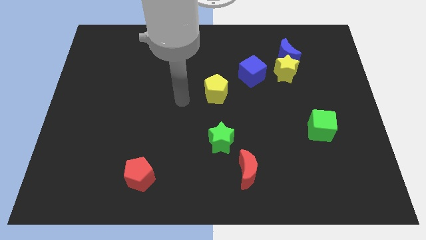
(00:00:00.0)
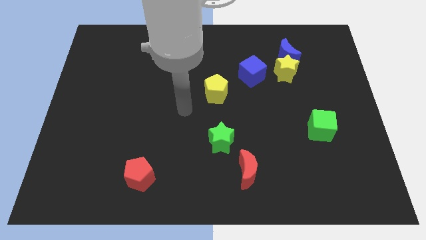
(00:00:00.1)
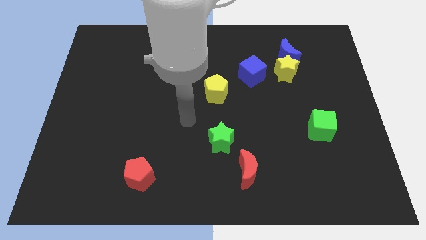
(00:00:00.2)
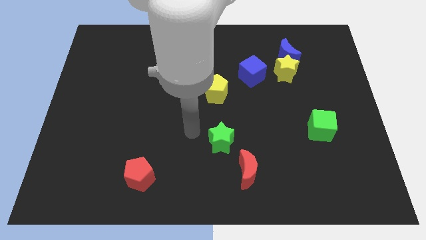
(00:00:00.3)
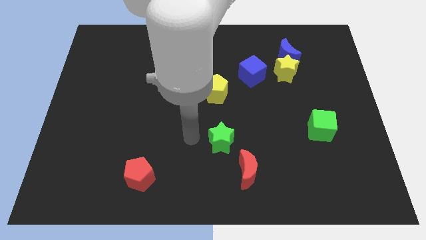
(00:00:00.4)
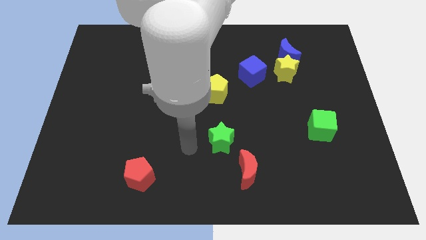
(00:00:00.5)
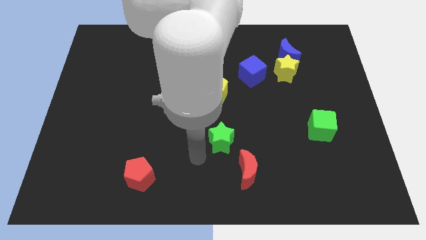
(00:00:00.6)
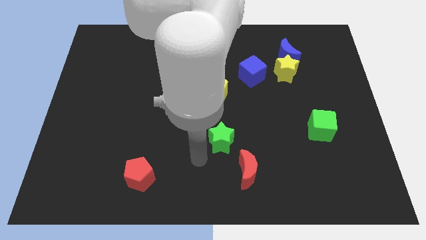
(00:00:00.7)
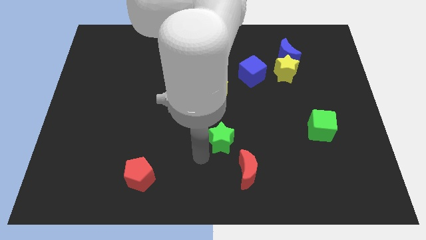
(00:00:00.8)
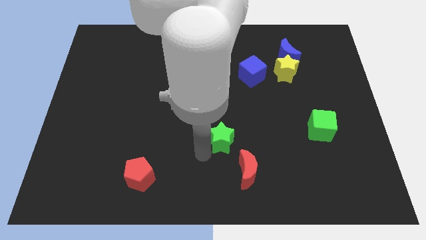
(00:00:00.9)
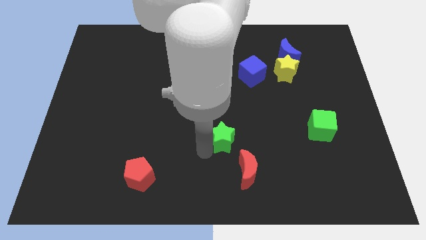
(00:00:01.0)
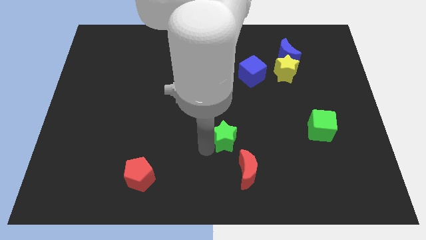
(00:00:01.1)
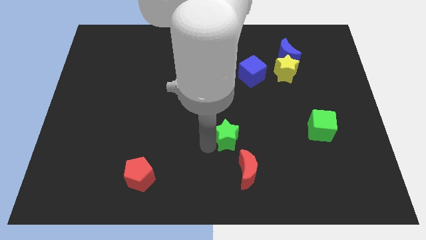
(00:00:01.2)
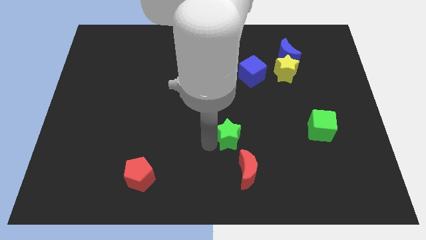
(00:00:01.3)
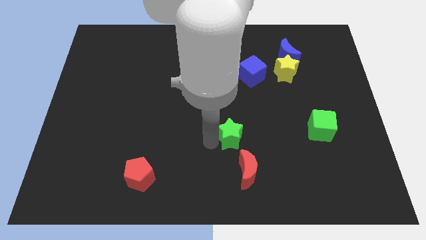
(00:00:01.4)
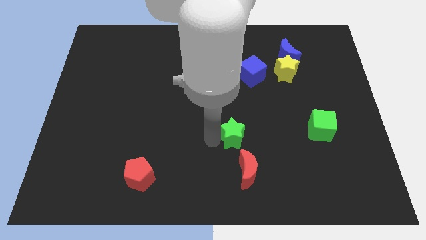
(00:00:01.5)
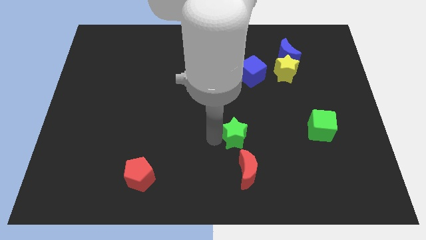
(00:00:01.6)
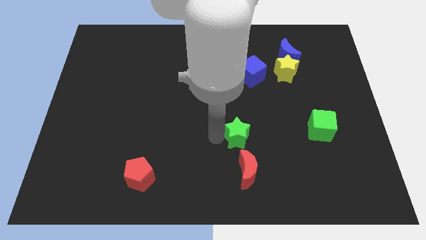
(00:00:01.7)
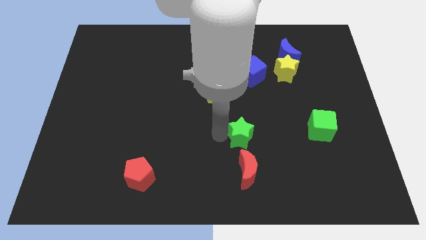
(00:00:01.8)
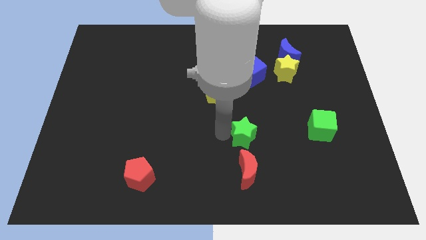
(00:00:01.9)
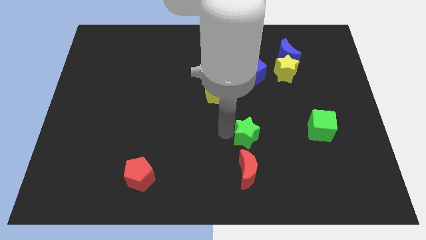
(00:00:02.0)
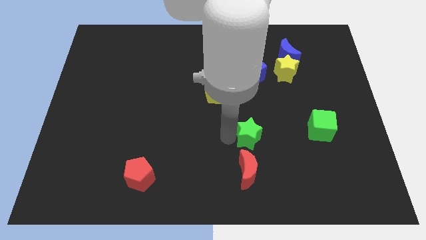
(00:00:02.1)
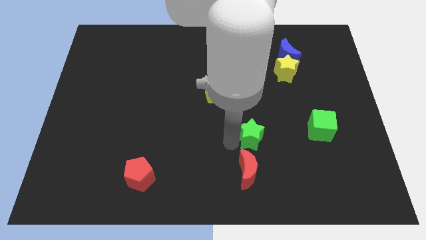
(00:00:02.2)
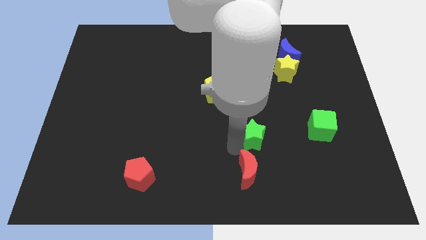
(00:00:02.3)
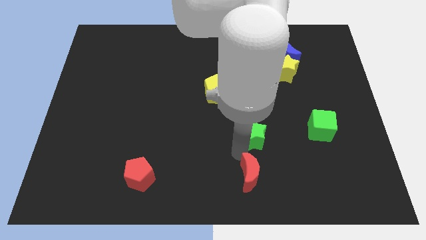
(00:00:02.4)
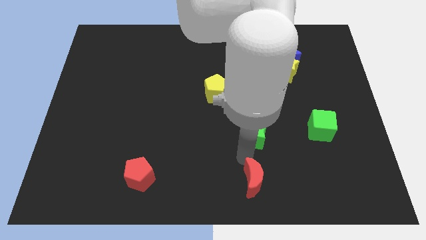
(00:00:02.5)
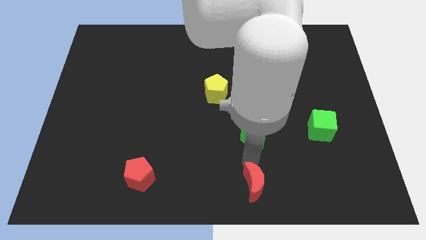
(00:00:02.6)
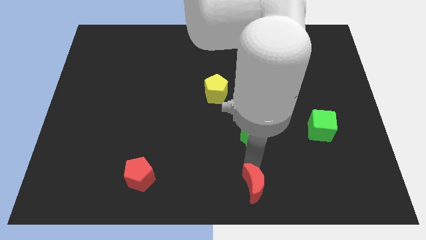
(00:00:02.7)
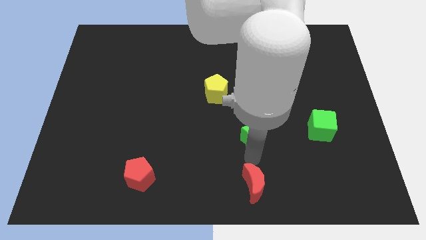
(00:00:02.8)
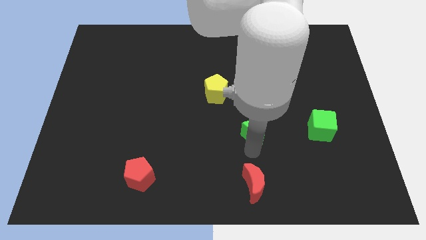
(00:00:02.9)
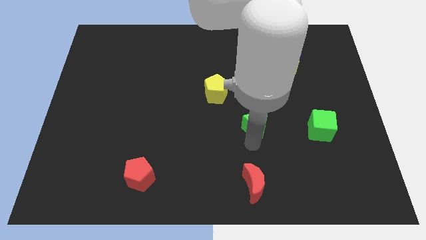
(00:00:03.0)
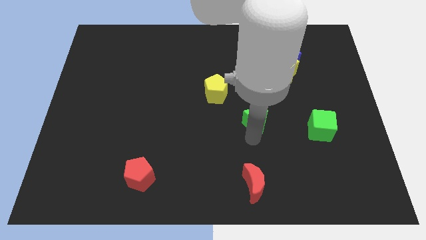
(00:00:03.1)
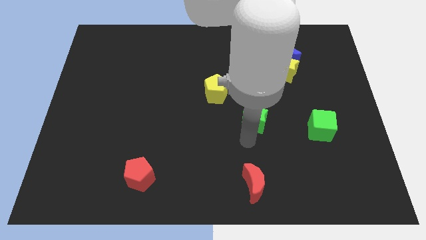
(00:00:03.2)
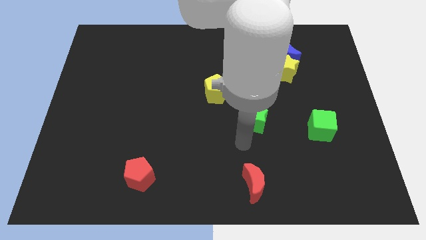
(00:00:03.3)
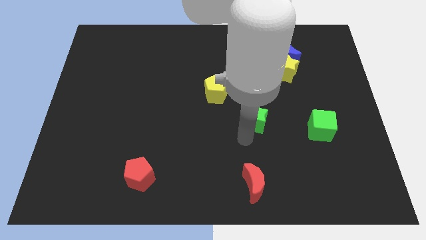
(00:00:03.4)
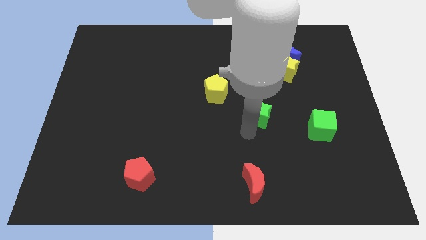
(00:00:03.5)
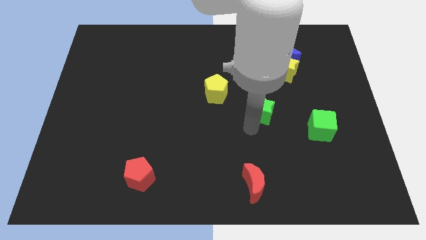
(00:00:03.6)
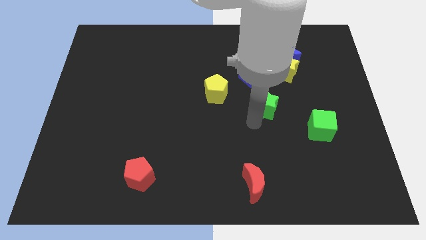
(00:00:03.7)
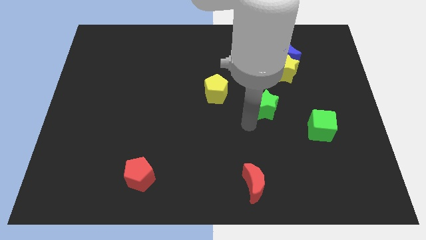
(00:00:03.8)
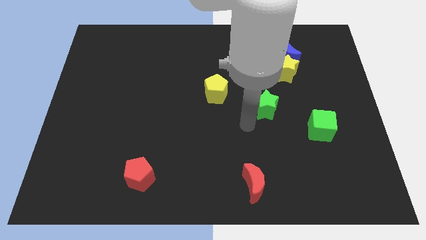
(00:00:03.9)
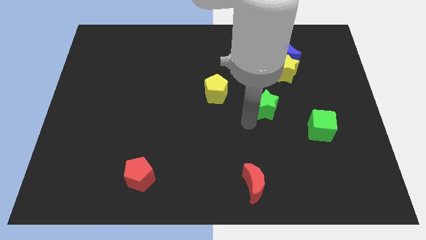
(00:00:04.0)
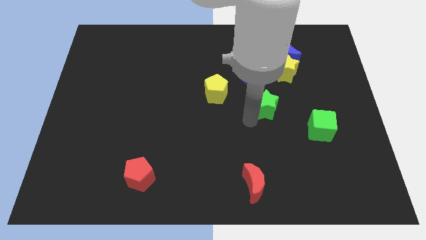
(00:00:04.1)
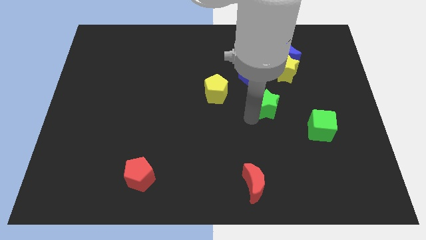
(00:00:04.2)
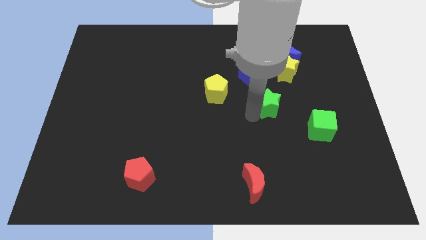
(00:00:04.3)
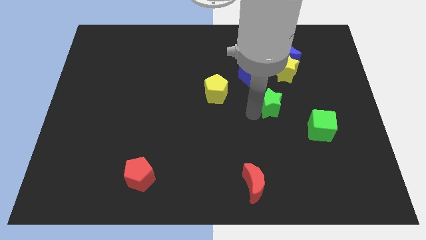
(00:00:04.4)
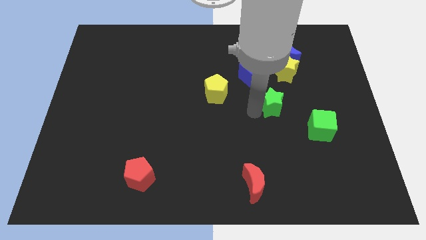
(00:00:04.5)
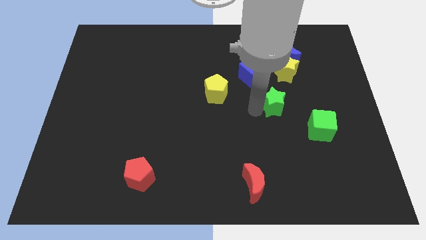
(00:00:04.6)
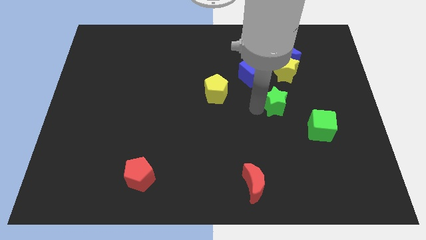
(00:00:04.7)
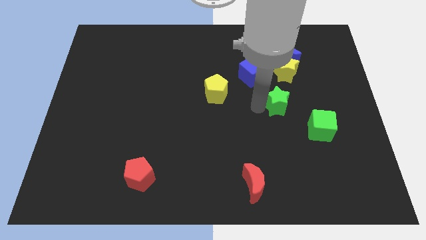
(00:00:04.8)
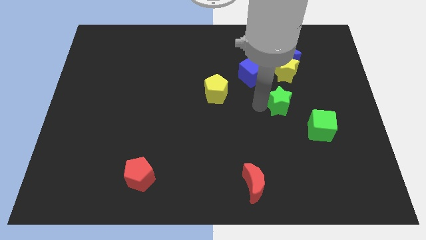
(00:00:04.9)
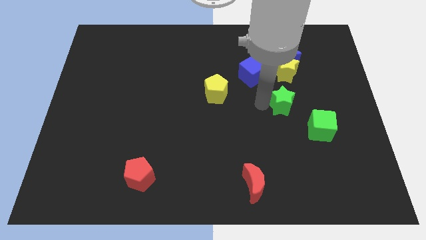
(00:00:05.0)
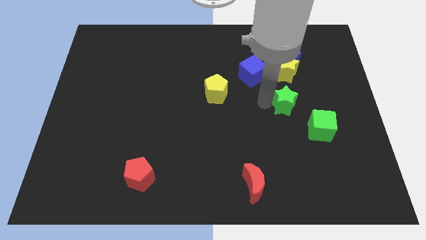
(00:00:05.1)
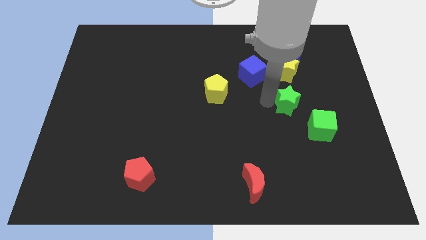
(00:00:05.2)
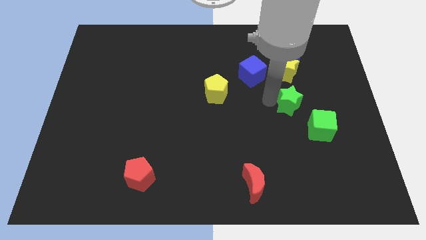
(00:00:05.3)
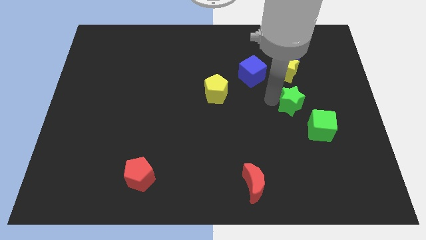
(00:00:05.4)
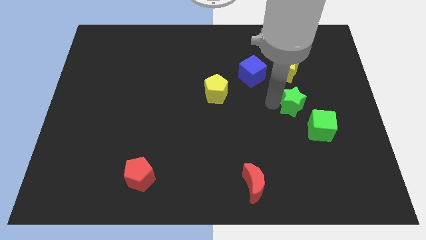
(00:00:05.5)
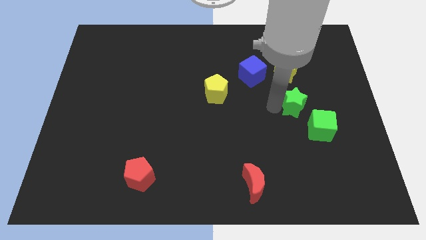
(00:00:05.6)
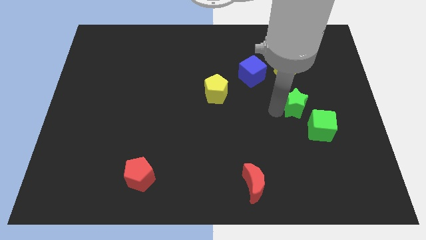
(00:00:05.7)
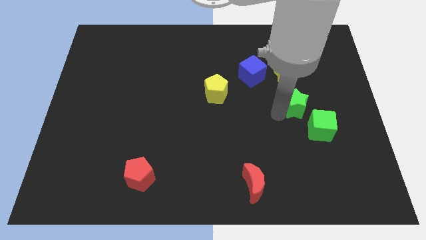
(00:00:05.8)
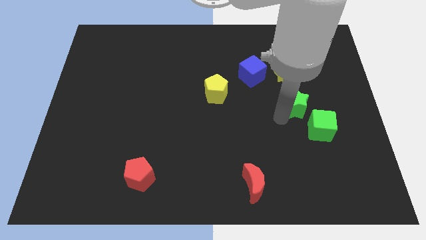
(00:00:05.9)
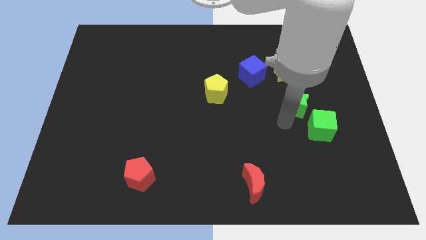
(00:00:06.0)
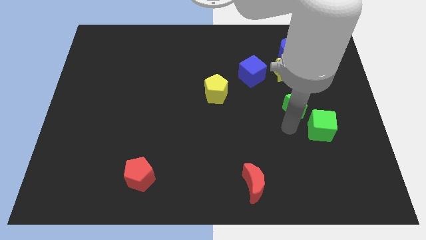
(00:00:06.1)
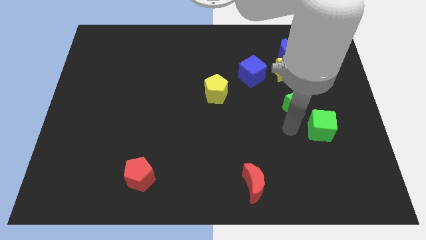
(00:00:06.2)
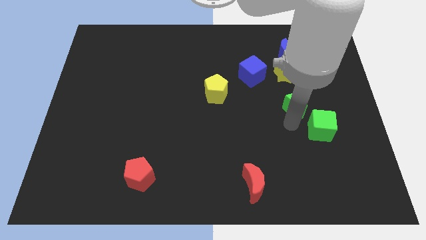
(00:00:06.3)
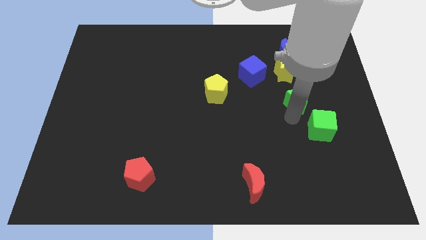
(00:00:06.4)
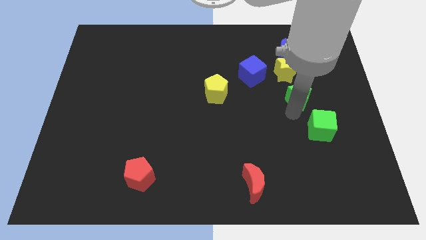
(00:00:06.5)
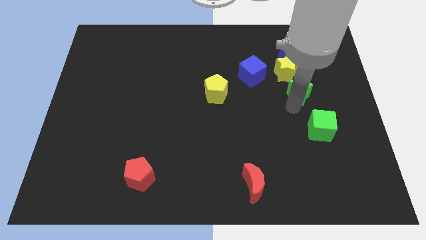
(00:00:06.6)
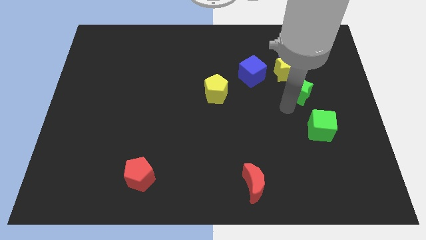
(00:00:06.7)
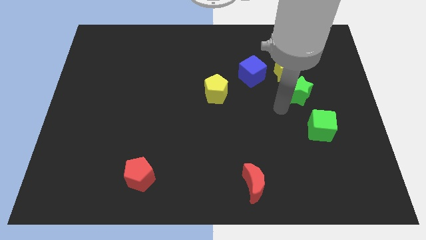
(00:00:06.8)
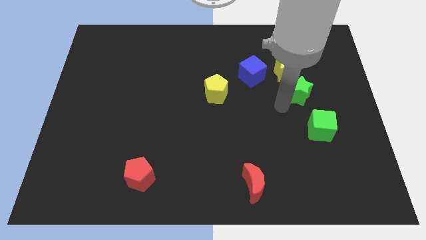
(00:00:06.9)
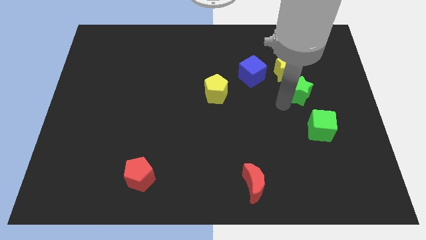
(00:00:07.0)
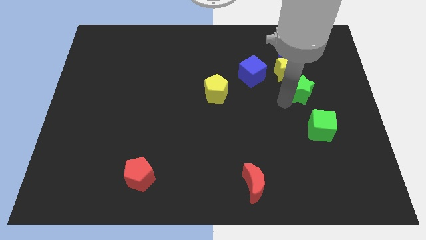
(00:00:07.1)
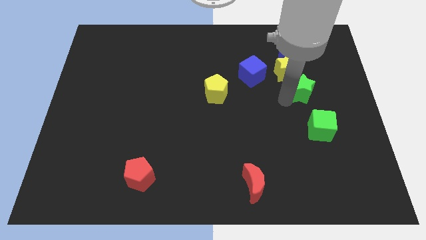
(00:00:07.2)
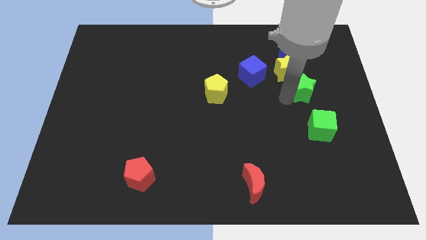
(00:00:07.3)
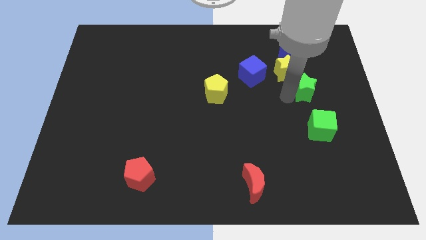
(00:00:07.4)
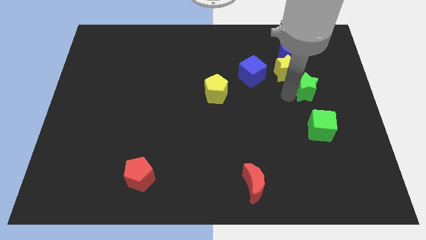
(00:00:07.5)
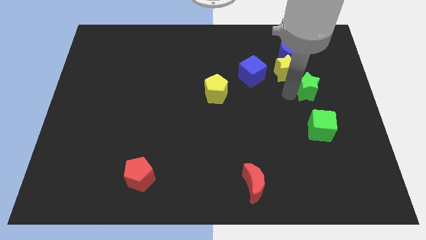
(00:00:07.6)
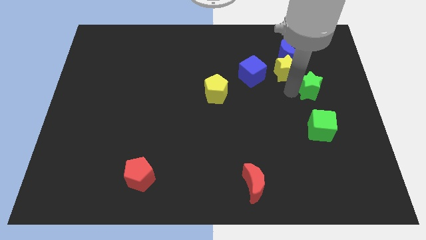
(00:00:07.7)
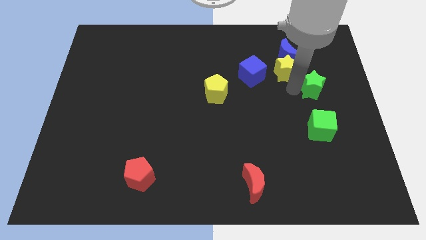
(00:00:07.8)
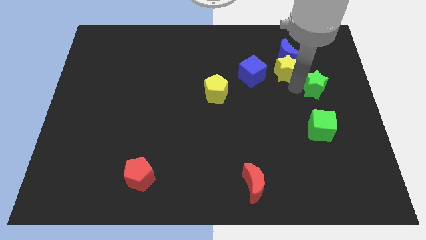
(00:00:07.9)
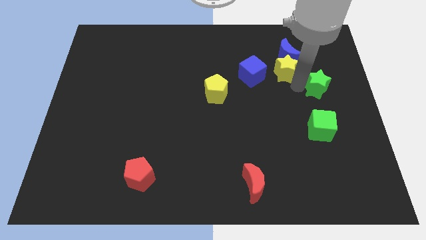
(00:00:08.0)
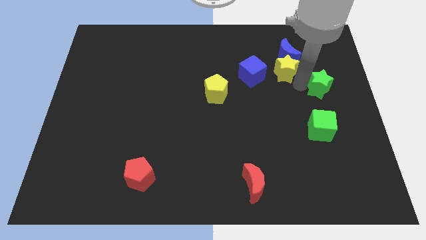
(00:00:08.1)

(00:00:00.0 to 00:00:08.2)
push the green star to the right of the yellow star
